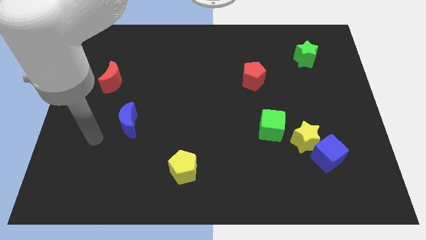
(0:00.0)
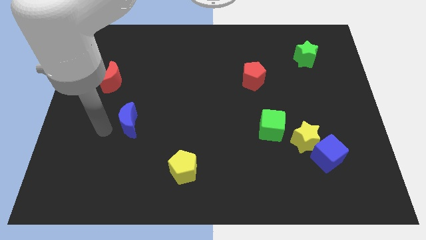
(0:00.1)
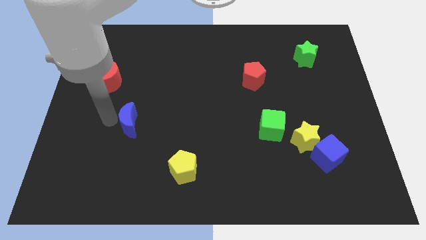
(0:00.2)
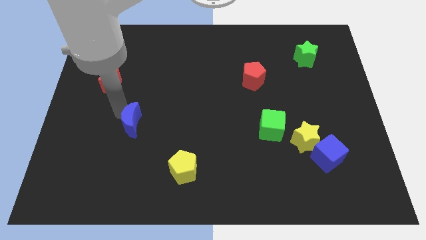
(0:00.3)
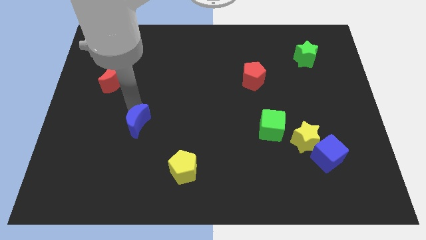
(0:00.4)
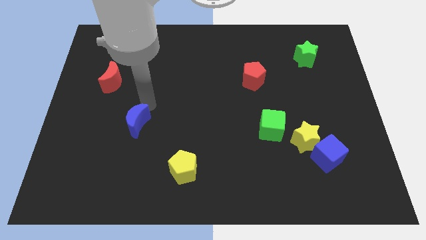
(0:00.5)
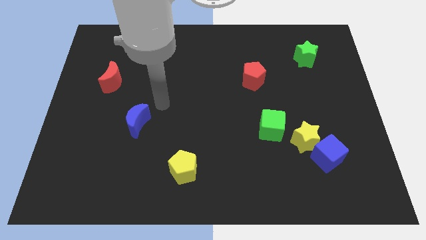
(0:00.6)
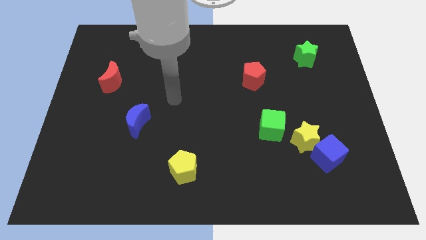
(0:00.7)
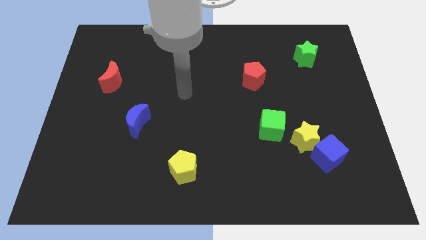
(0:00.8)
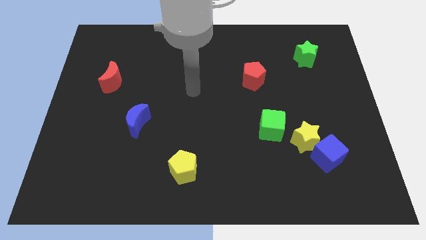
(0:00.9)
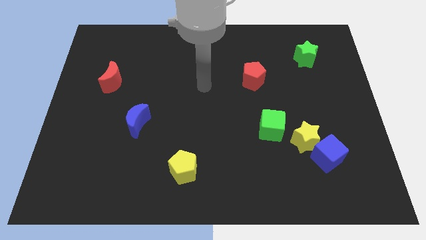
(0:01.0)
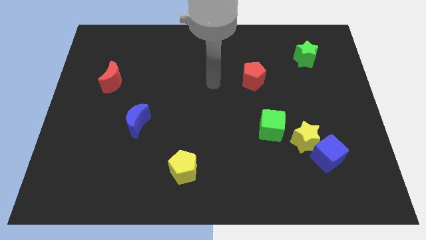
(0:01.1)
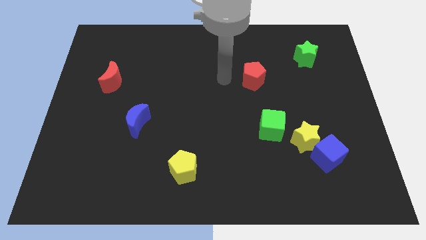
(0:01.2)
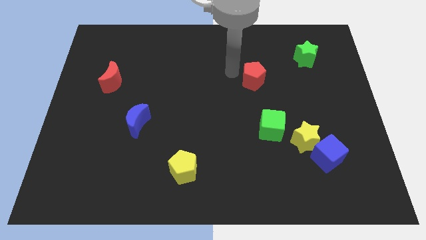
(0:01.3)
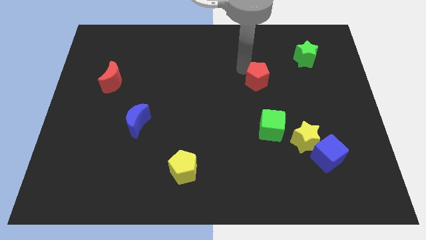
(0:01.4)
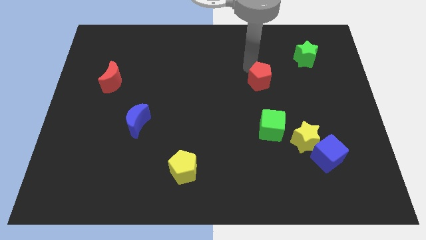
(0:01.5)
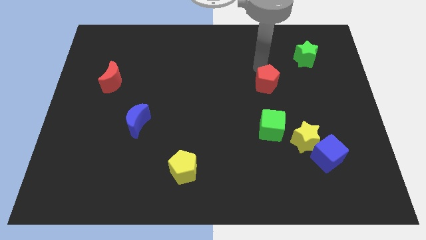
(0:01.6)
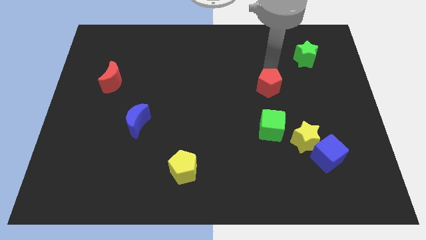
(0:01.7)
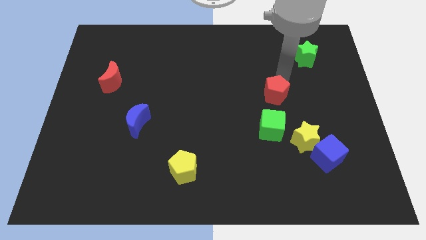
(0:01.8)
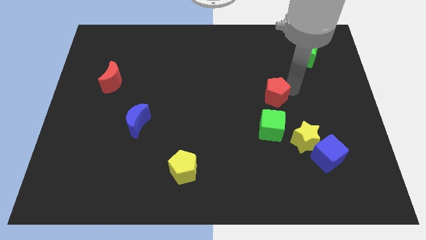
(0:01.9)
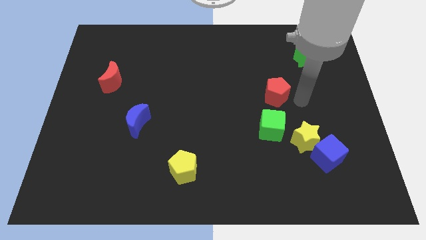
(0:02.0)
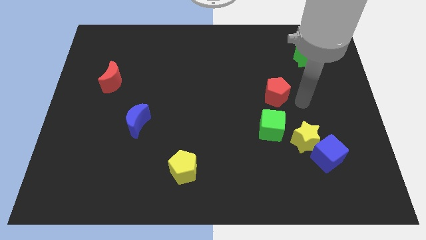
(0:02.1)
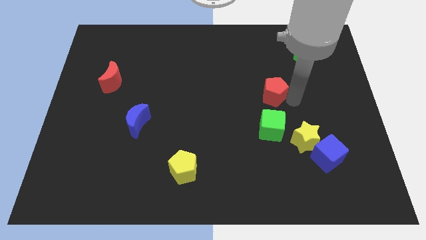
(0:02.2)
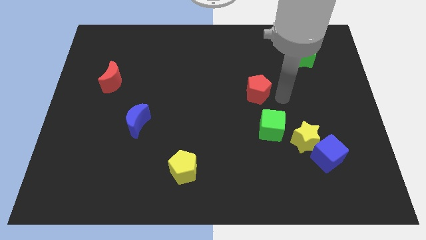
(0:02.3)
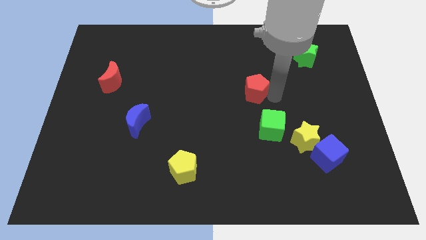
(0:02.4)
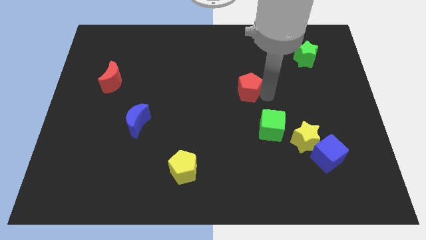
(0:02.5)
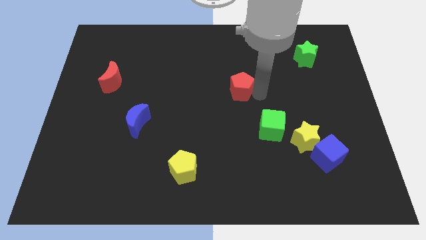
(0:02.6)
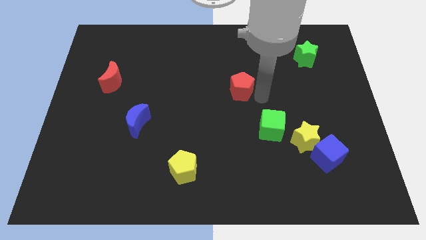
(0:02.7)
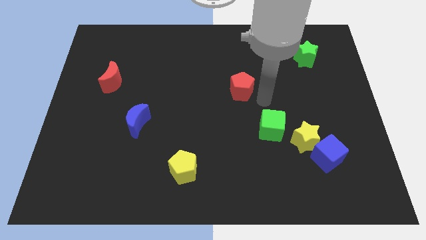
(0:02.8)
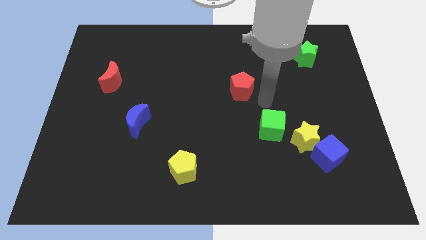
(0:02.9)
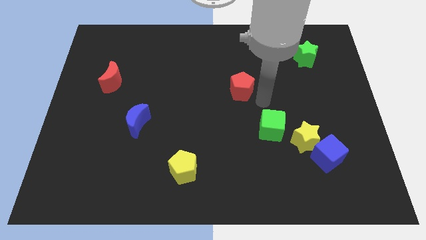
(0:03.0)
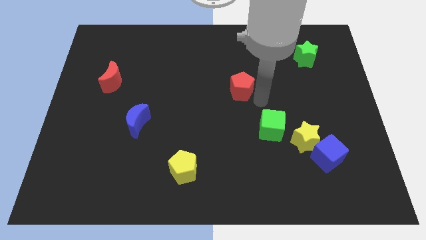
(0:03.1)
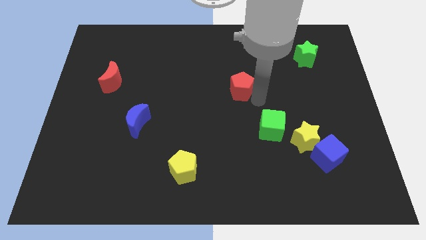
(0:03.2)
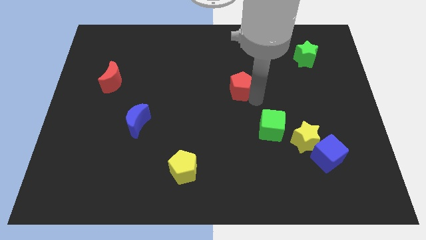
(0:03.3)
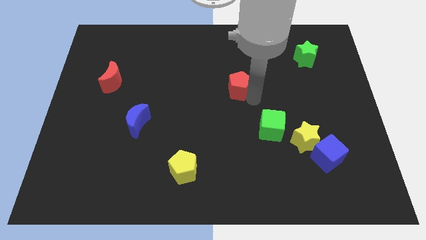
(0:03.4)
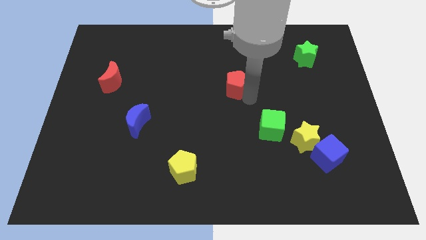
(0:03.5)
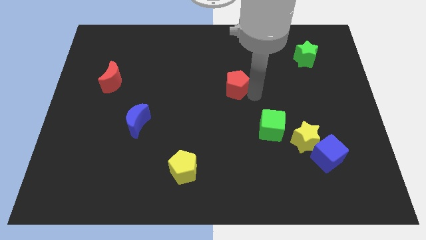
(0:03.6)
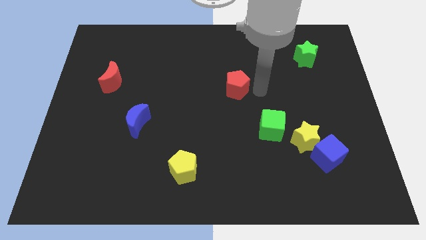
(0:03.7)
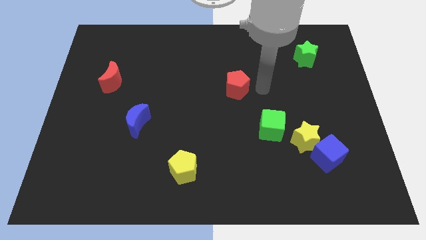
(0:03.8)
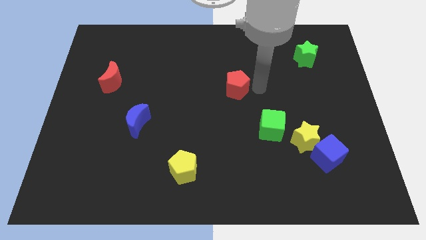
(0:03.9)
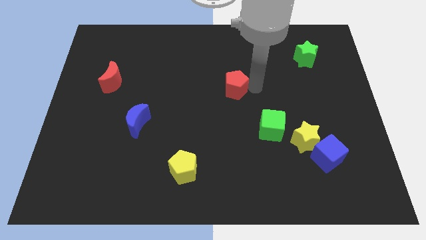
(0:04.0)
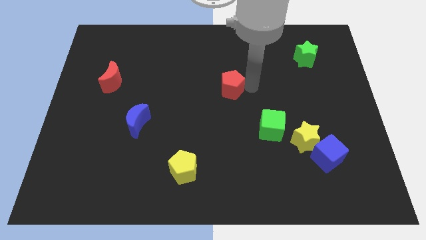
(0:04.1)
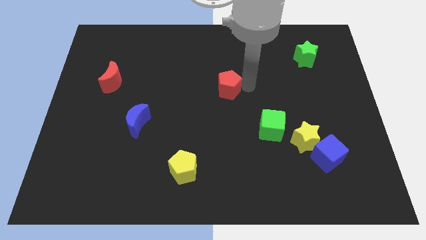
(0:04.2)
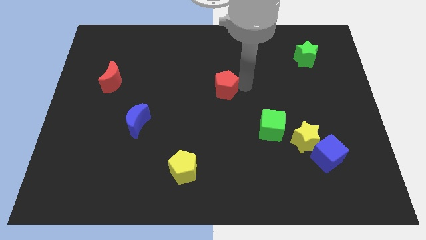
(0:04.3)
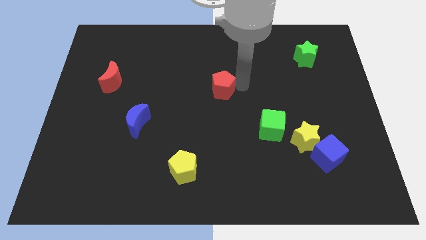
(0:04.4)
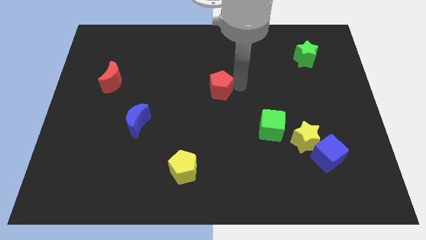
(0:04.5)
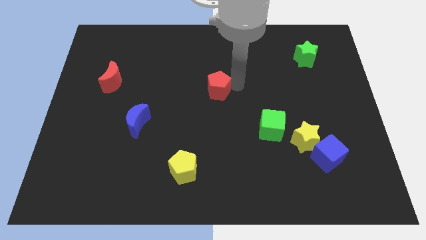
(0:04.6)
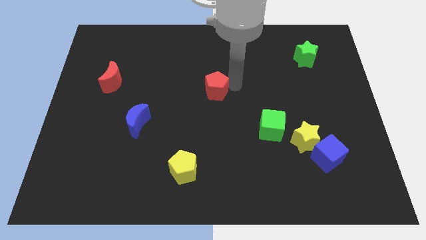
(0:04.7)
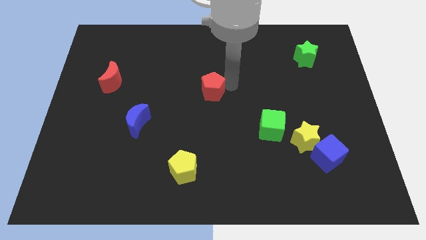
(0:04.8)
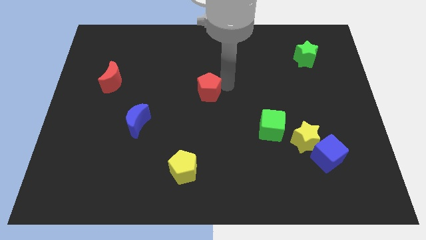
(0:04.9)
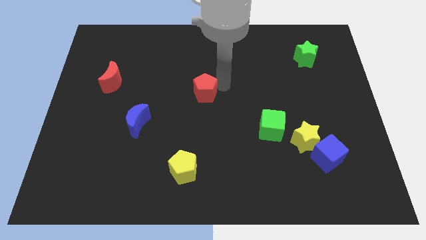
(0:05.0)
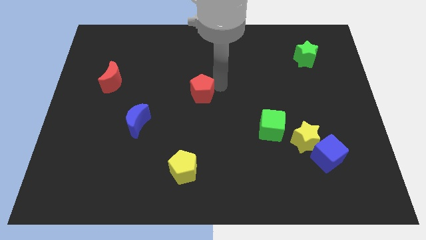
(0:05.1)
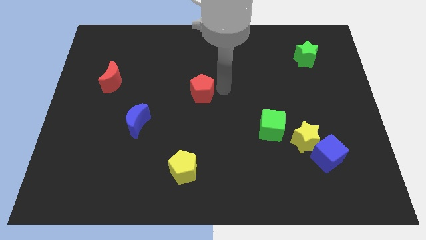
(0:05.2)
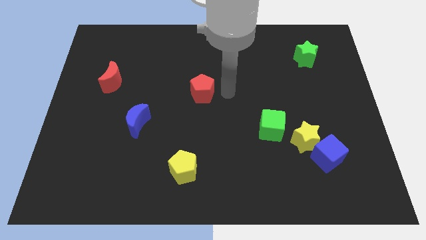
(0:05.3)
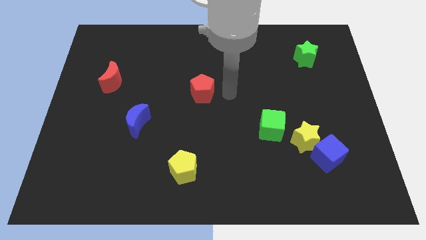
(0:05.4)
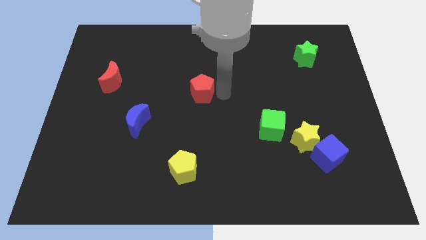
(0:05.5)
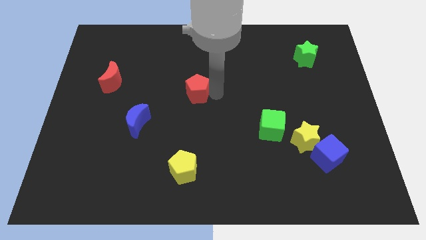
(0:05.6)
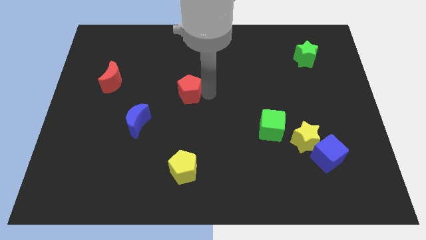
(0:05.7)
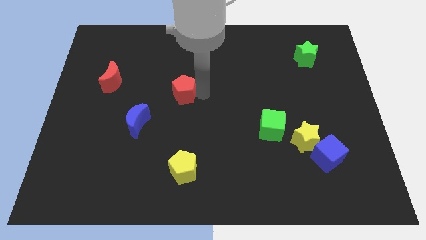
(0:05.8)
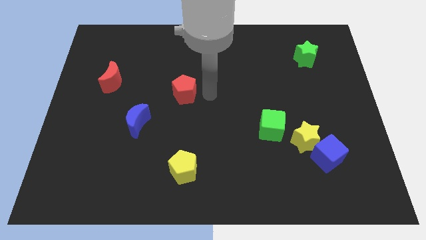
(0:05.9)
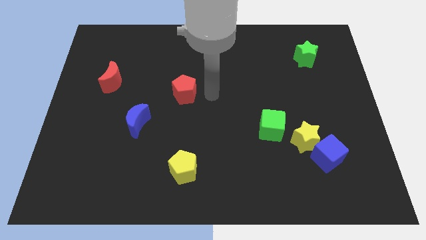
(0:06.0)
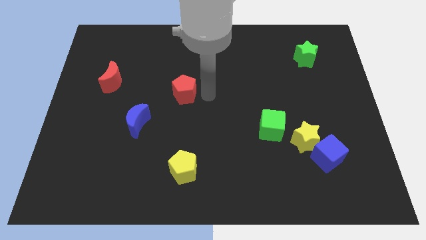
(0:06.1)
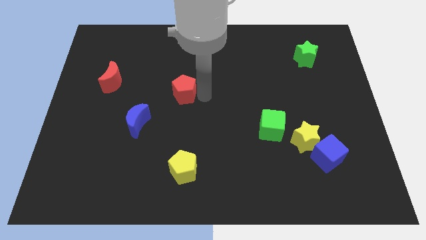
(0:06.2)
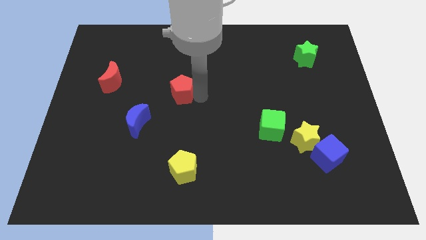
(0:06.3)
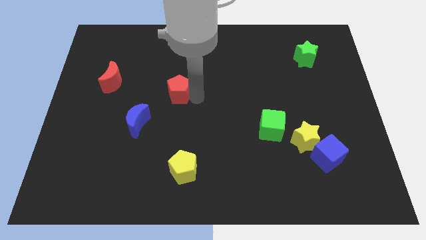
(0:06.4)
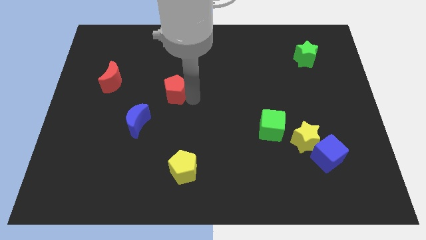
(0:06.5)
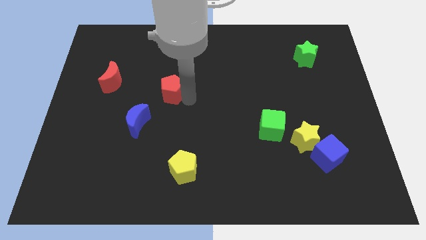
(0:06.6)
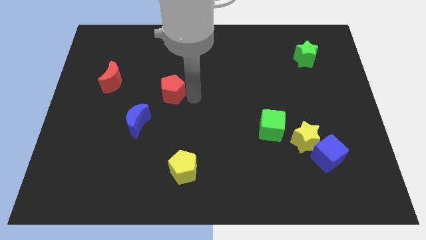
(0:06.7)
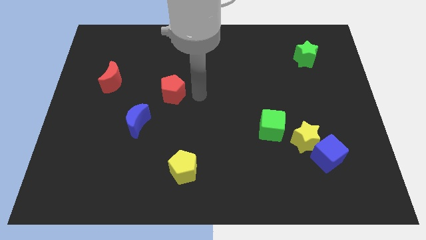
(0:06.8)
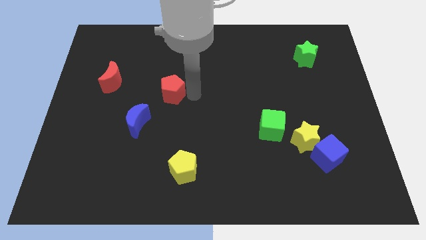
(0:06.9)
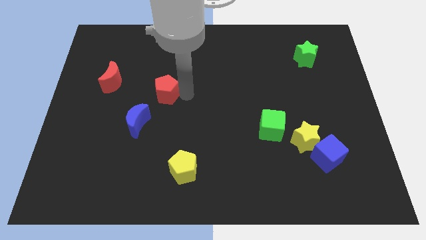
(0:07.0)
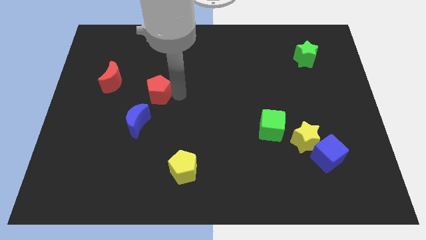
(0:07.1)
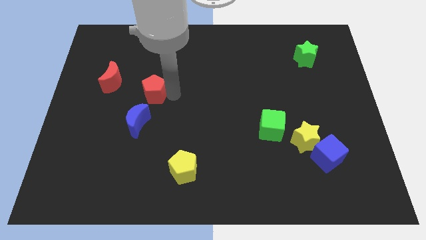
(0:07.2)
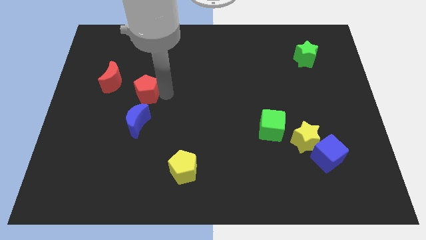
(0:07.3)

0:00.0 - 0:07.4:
move the red pentagon diagonally down and to the right of the red moon

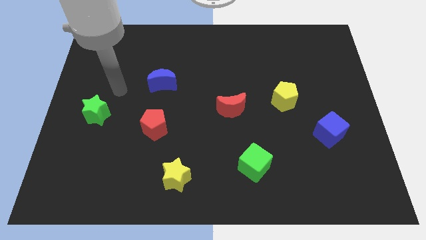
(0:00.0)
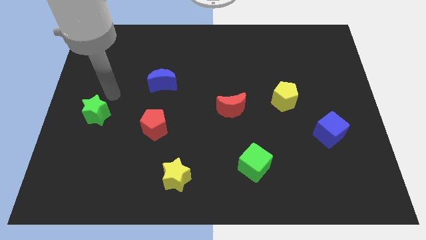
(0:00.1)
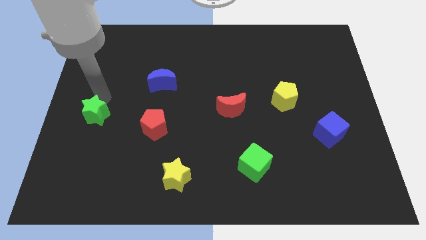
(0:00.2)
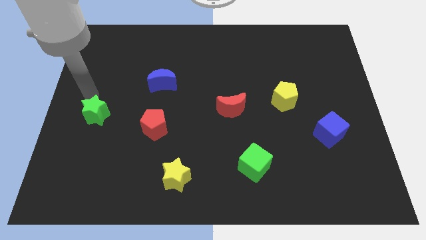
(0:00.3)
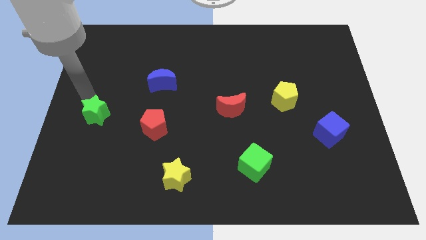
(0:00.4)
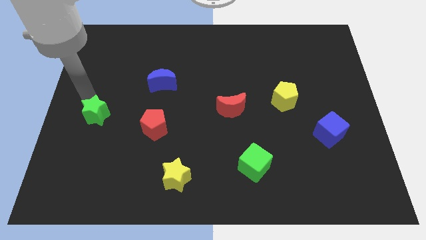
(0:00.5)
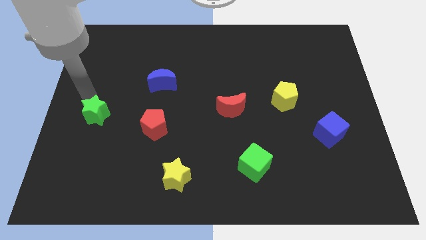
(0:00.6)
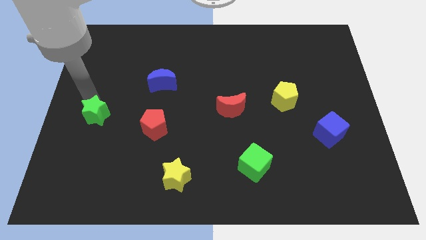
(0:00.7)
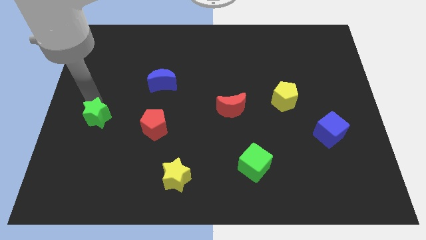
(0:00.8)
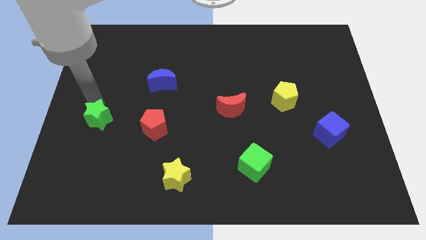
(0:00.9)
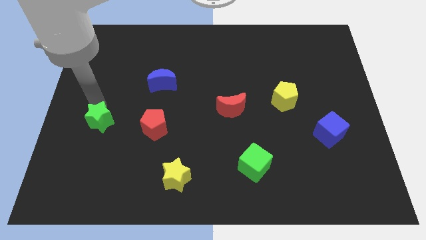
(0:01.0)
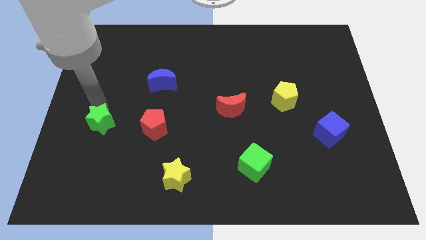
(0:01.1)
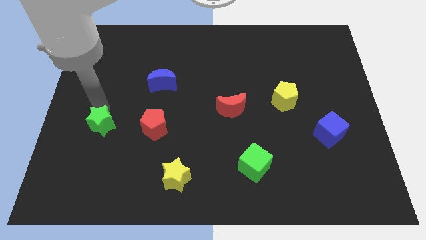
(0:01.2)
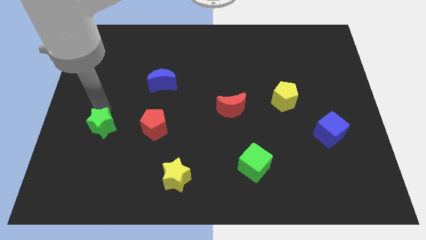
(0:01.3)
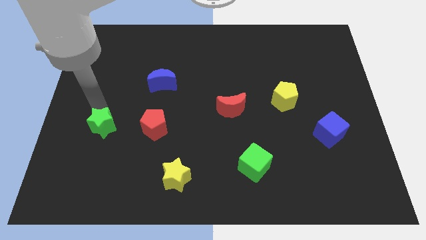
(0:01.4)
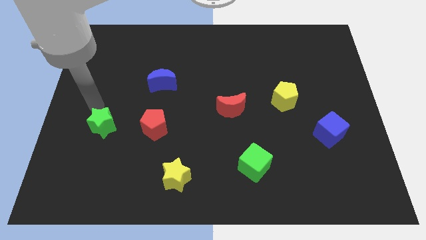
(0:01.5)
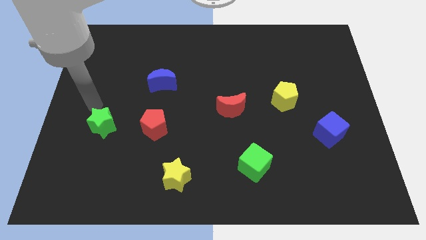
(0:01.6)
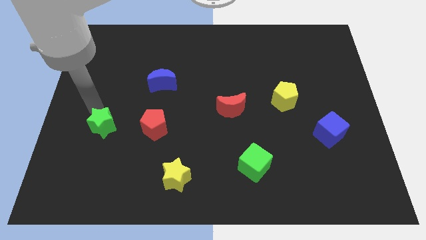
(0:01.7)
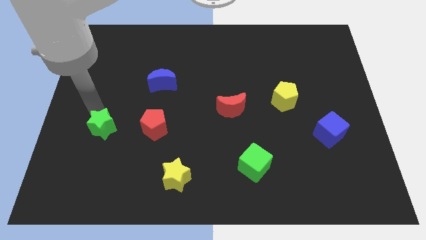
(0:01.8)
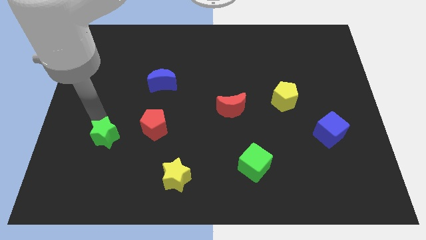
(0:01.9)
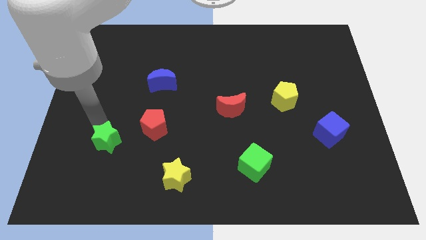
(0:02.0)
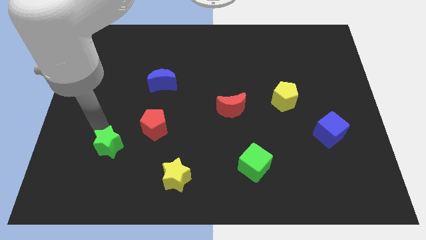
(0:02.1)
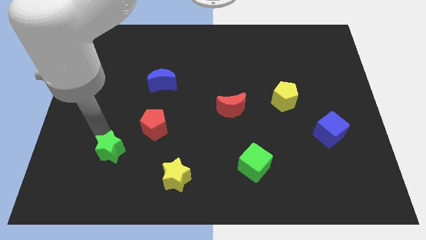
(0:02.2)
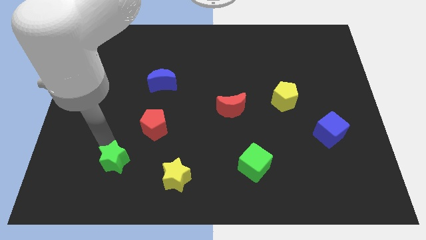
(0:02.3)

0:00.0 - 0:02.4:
move the green star to the left of the yellow star
